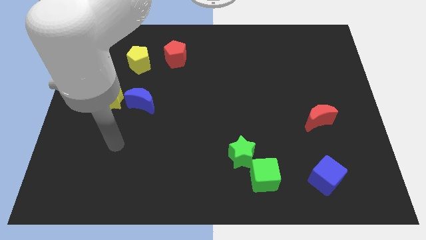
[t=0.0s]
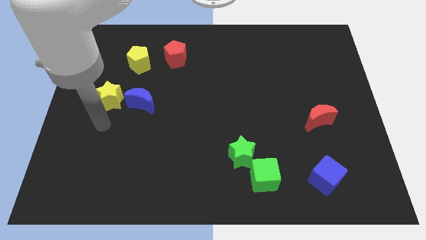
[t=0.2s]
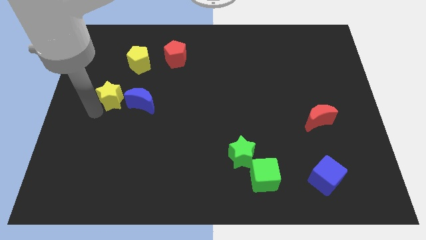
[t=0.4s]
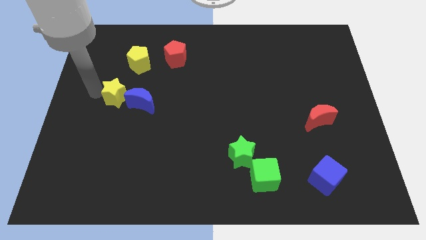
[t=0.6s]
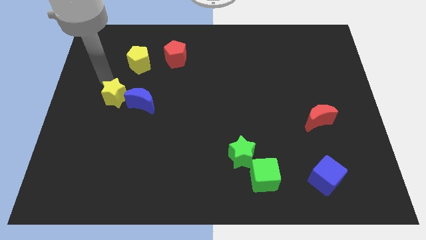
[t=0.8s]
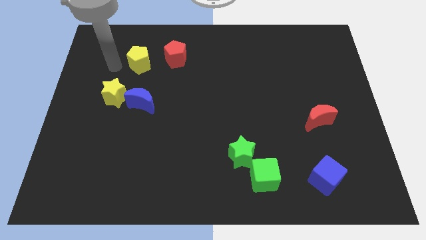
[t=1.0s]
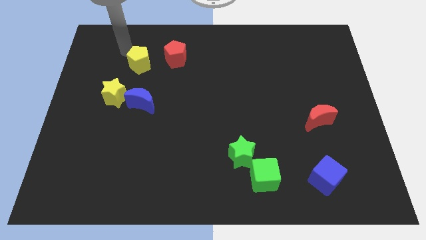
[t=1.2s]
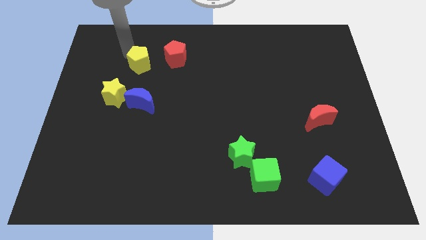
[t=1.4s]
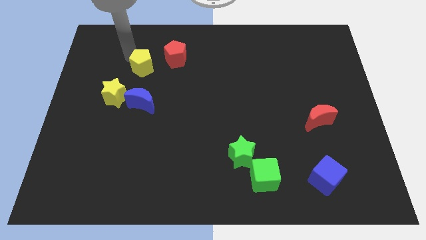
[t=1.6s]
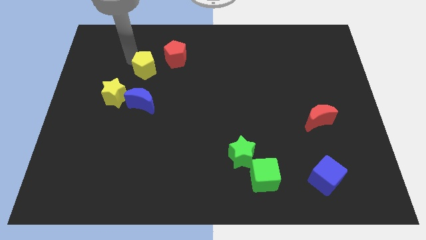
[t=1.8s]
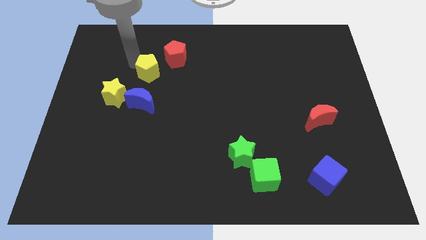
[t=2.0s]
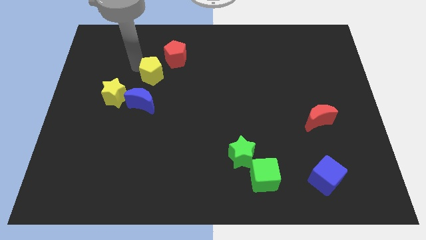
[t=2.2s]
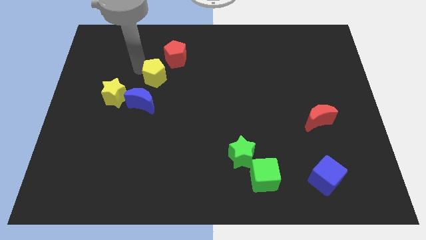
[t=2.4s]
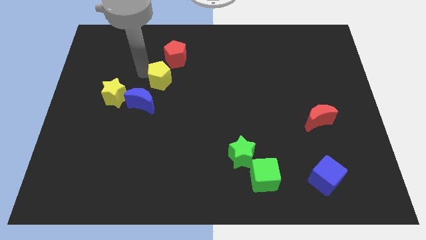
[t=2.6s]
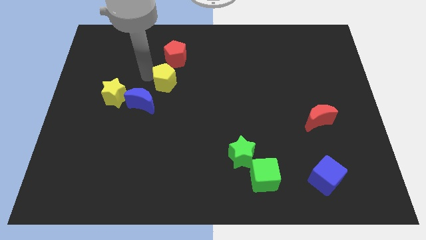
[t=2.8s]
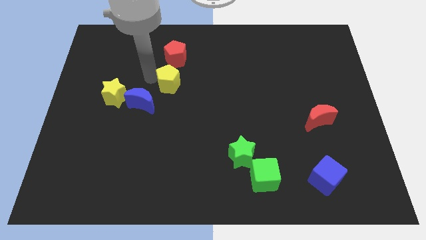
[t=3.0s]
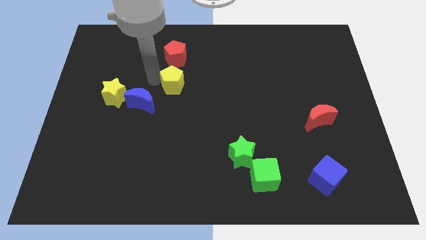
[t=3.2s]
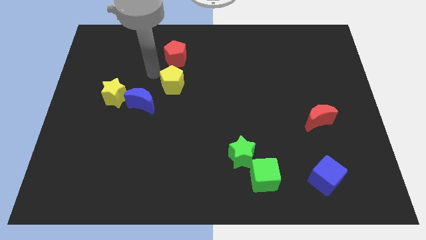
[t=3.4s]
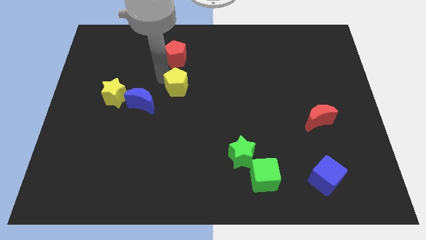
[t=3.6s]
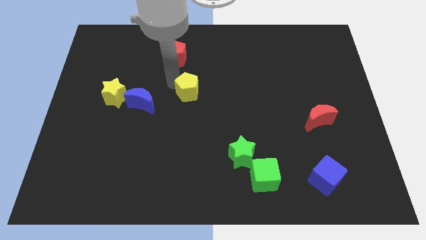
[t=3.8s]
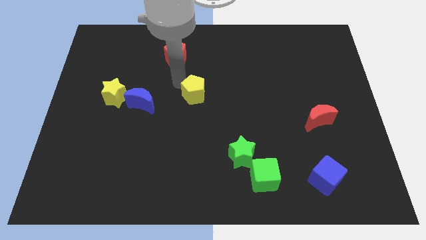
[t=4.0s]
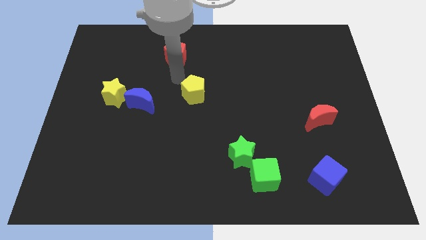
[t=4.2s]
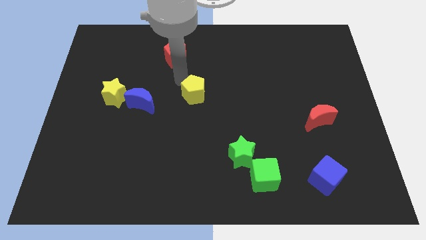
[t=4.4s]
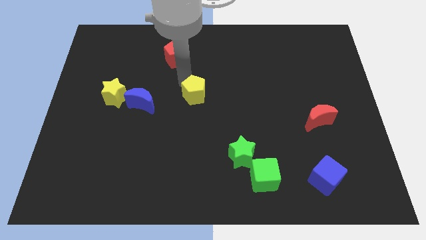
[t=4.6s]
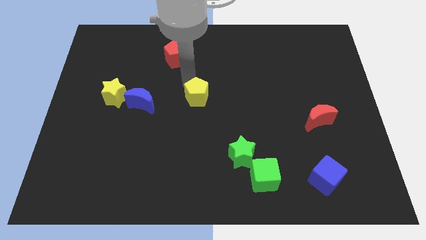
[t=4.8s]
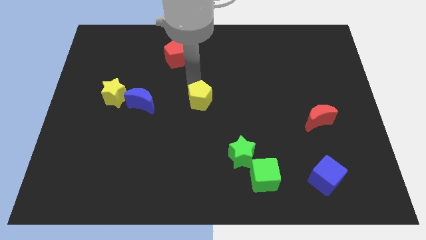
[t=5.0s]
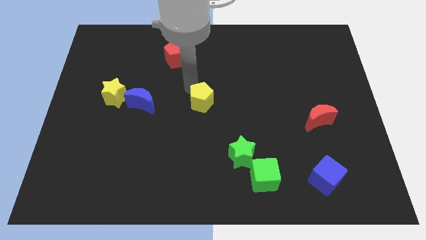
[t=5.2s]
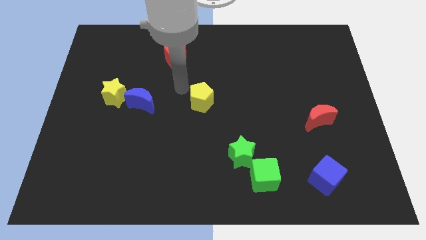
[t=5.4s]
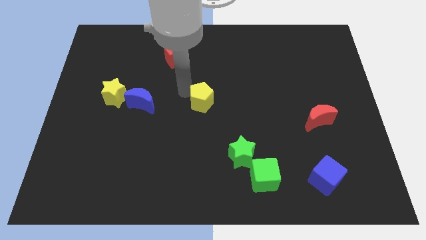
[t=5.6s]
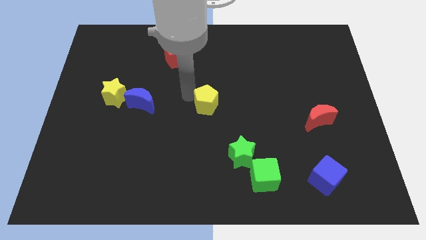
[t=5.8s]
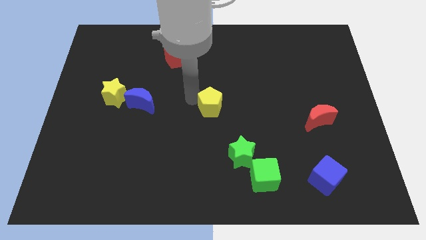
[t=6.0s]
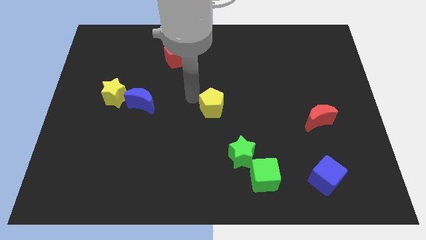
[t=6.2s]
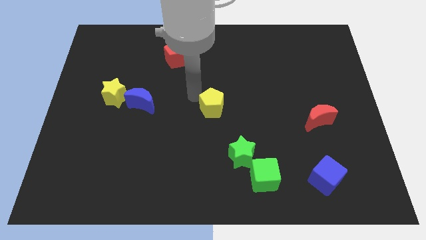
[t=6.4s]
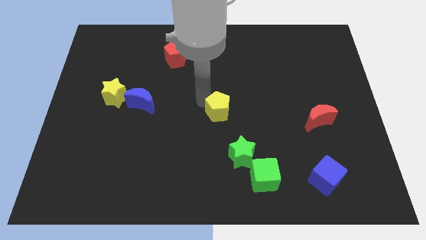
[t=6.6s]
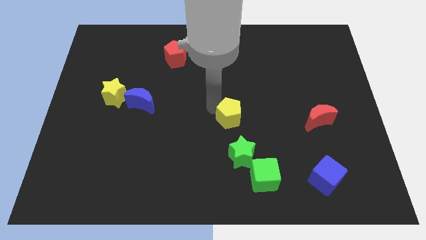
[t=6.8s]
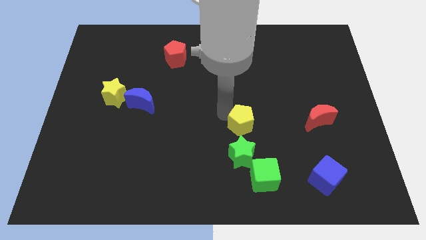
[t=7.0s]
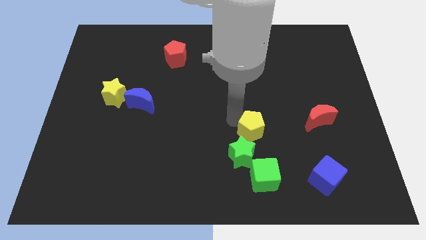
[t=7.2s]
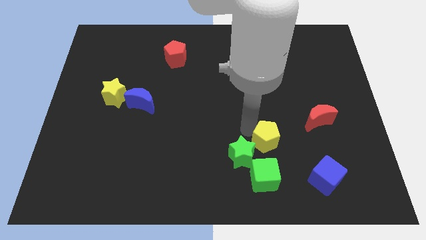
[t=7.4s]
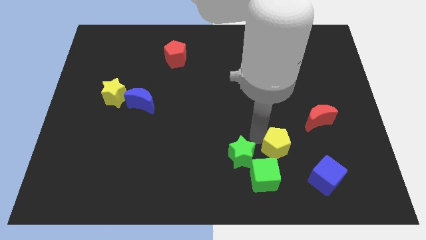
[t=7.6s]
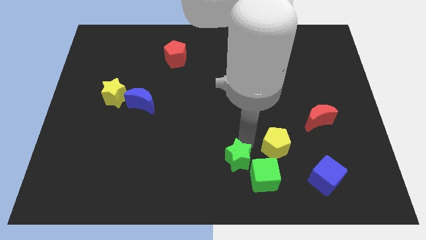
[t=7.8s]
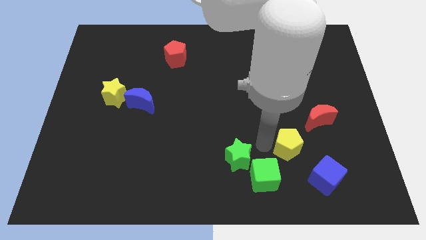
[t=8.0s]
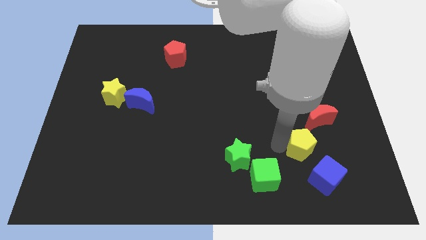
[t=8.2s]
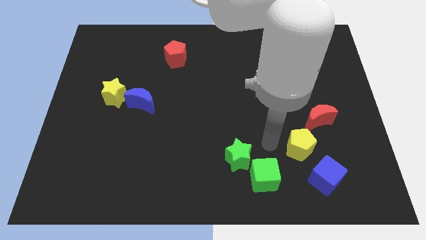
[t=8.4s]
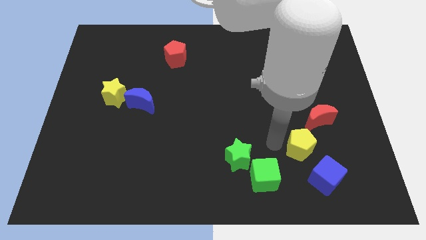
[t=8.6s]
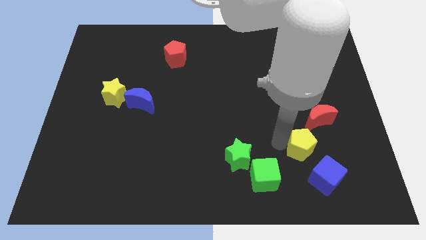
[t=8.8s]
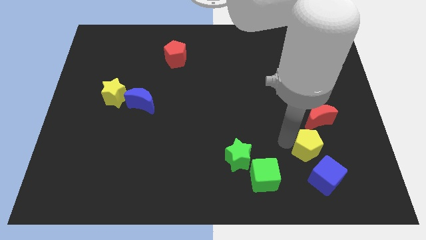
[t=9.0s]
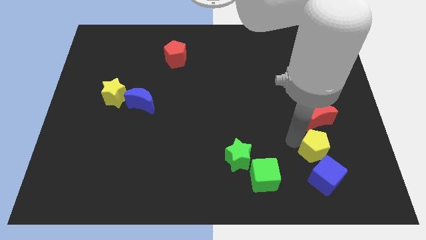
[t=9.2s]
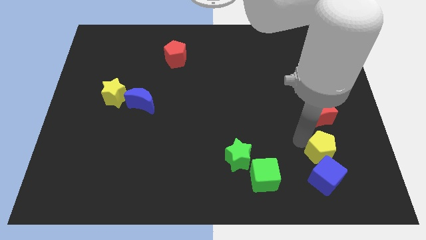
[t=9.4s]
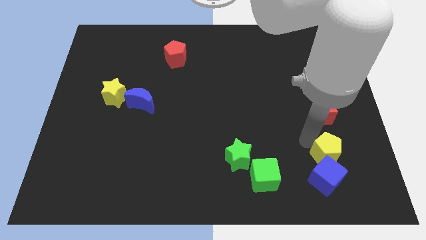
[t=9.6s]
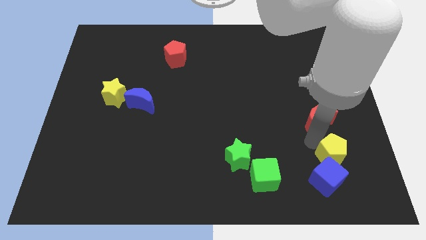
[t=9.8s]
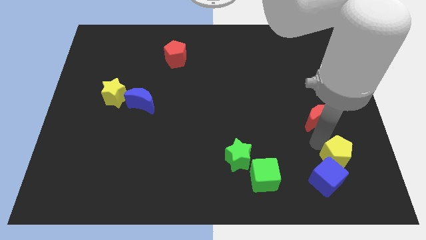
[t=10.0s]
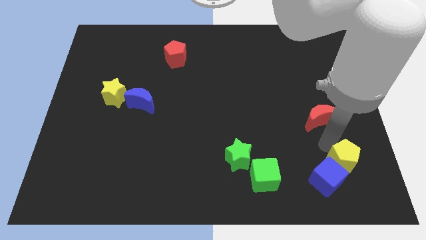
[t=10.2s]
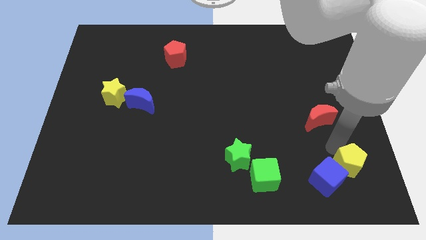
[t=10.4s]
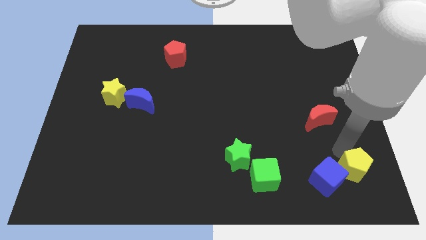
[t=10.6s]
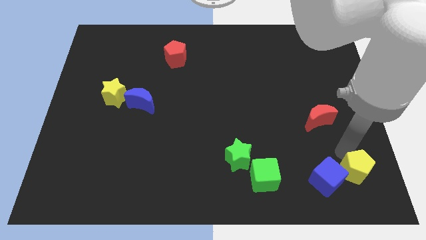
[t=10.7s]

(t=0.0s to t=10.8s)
push the yellow pentagon to the bottom right corner
